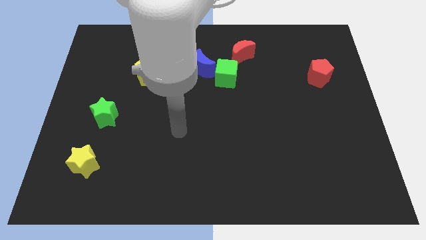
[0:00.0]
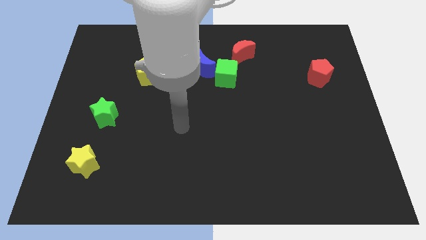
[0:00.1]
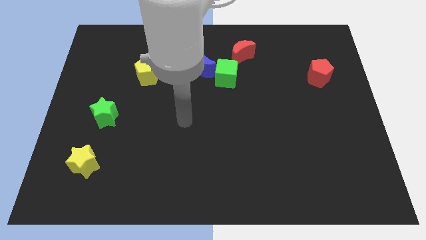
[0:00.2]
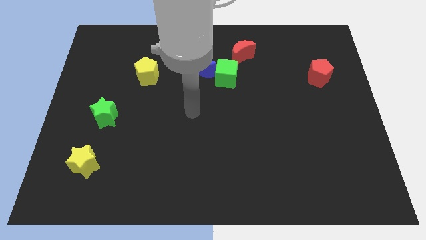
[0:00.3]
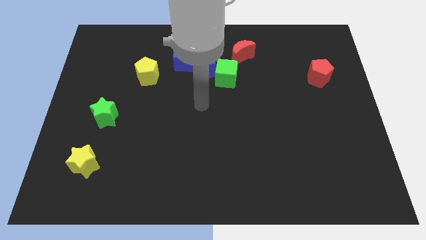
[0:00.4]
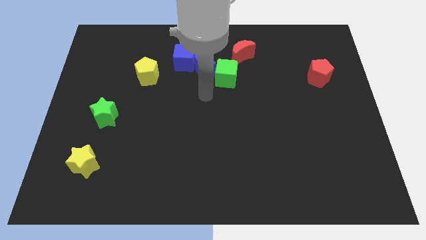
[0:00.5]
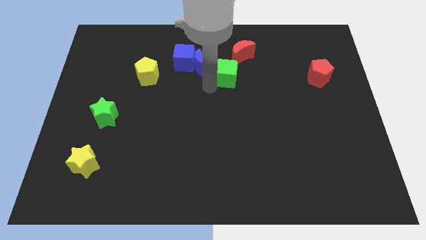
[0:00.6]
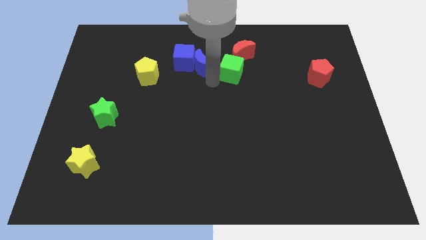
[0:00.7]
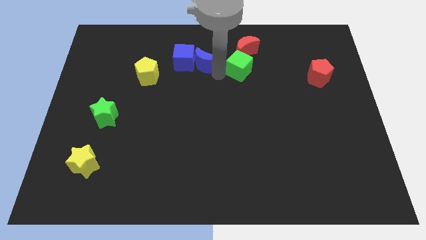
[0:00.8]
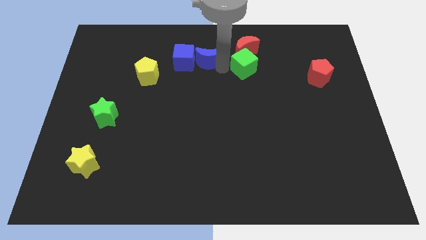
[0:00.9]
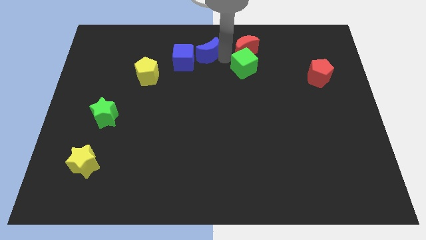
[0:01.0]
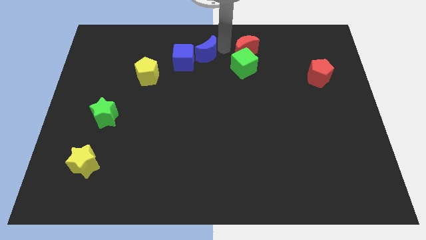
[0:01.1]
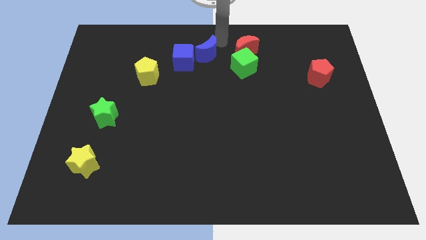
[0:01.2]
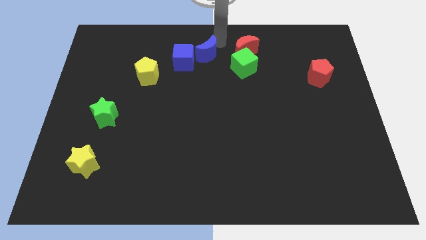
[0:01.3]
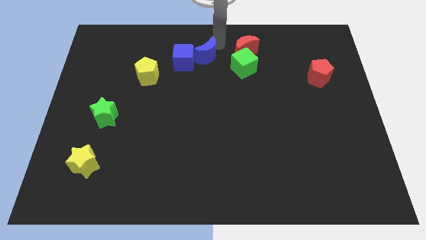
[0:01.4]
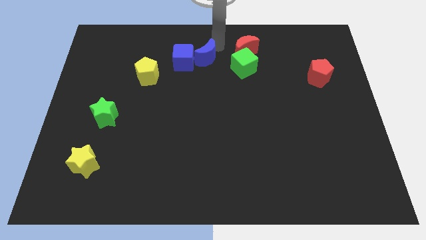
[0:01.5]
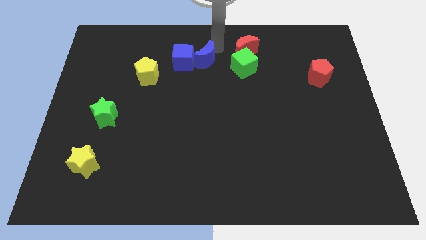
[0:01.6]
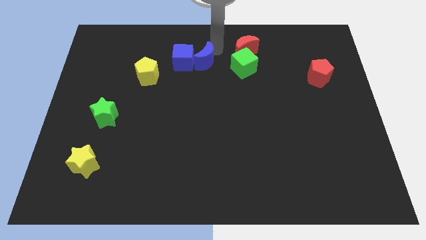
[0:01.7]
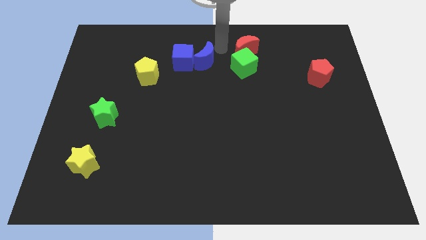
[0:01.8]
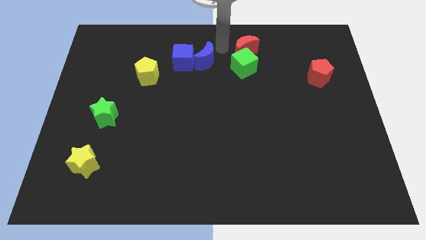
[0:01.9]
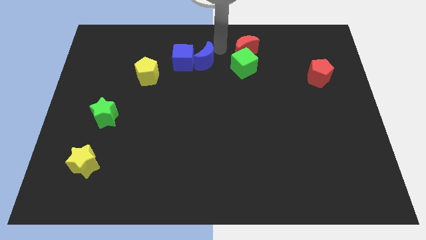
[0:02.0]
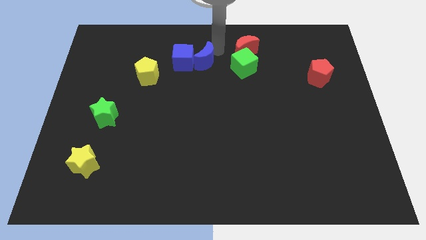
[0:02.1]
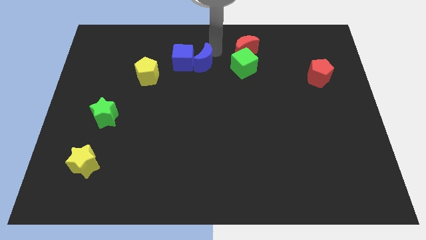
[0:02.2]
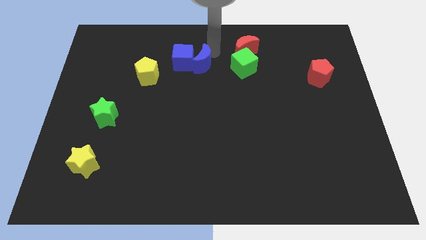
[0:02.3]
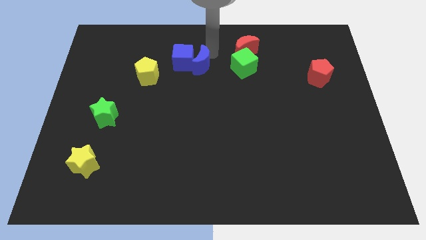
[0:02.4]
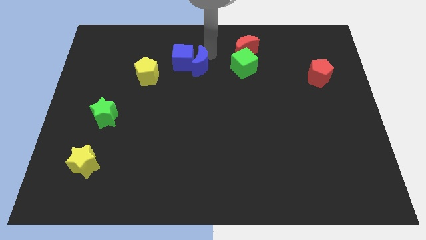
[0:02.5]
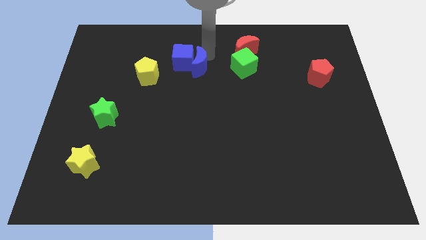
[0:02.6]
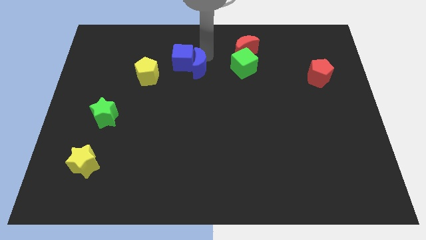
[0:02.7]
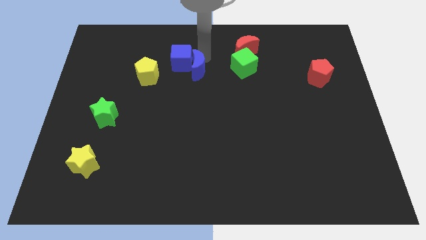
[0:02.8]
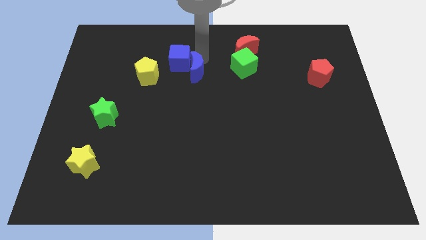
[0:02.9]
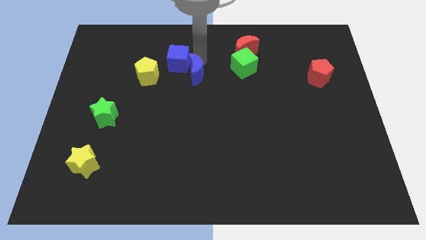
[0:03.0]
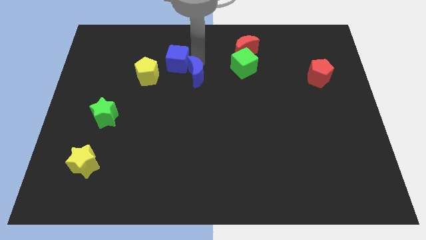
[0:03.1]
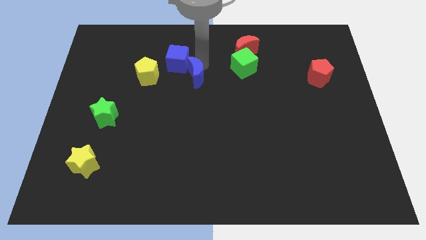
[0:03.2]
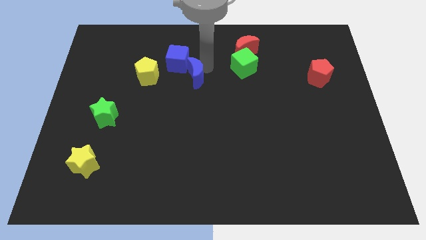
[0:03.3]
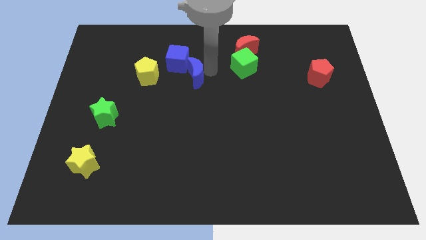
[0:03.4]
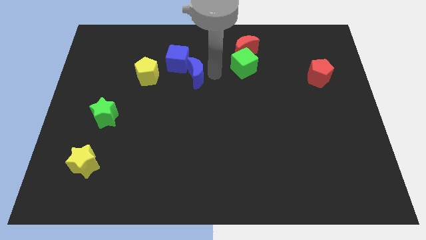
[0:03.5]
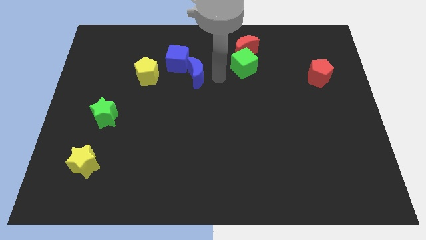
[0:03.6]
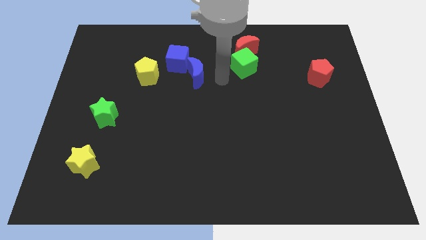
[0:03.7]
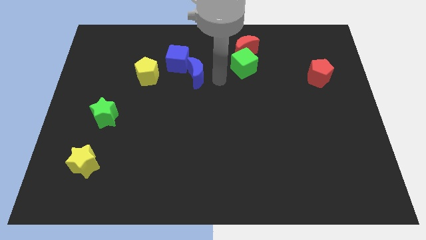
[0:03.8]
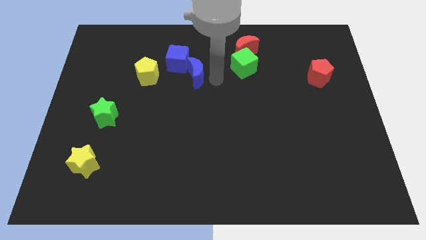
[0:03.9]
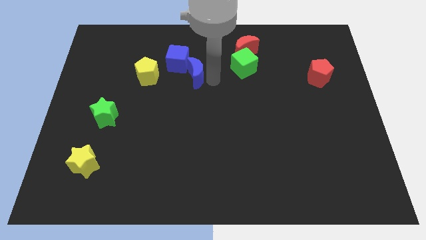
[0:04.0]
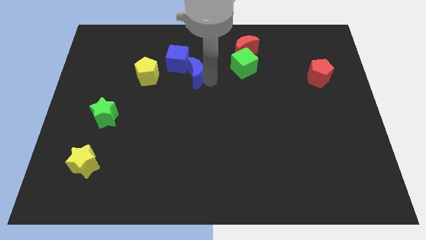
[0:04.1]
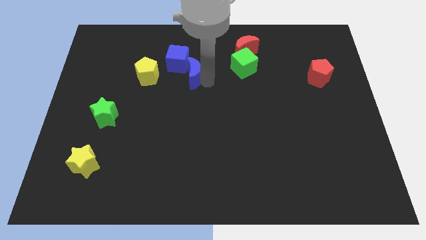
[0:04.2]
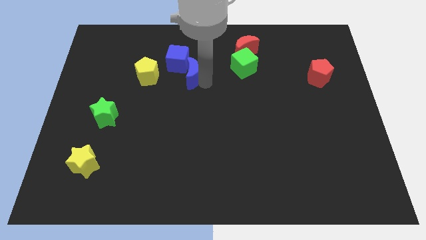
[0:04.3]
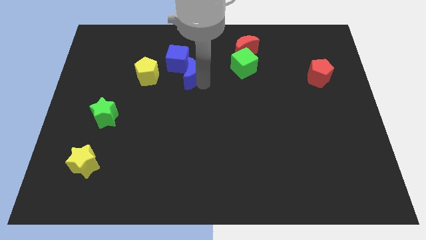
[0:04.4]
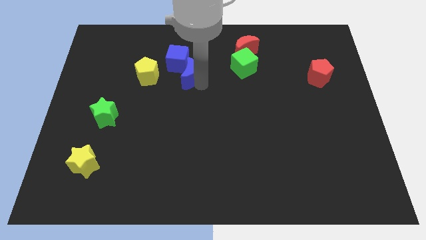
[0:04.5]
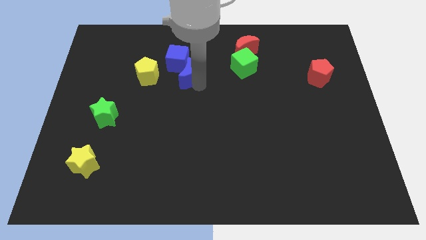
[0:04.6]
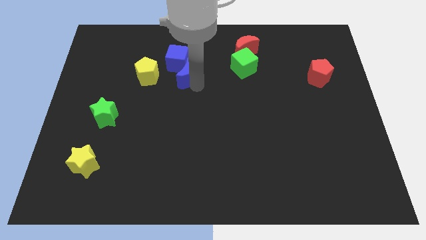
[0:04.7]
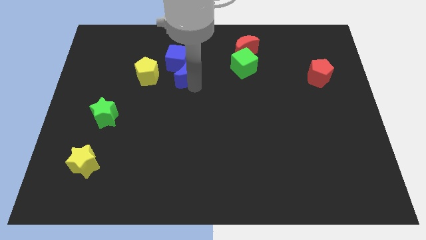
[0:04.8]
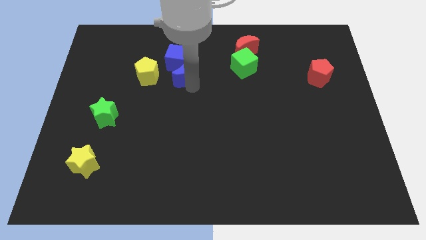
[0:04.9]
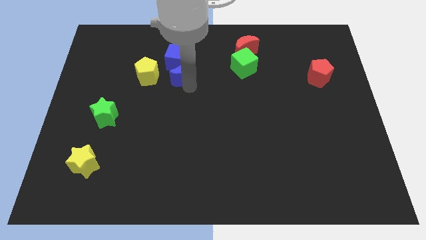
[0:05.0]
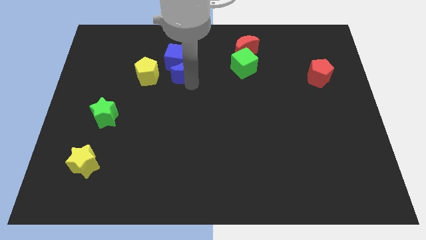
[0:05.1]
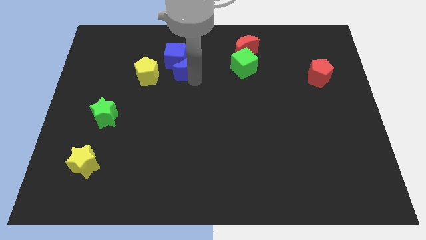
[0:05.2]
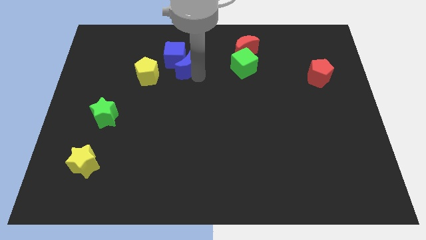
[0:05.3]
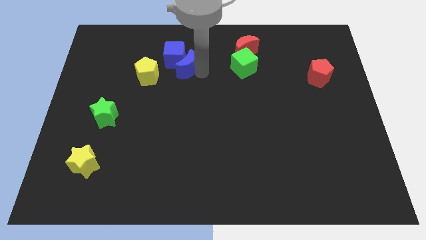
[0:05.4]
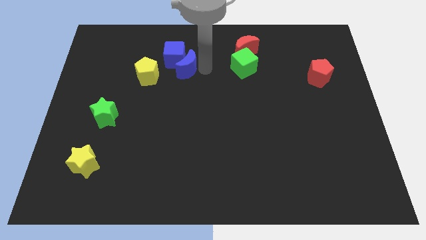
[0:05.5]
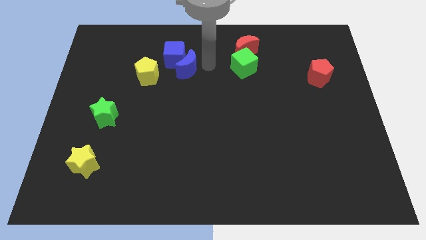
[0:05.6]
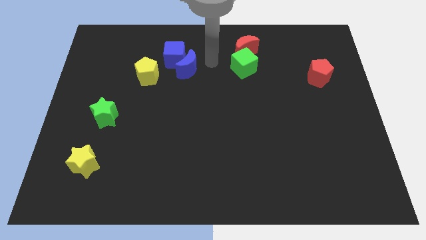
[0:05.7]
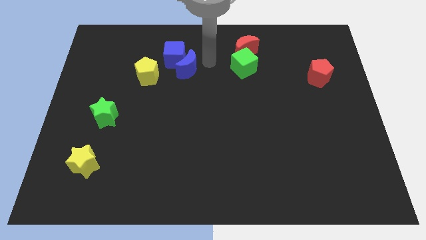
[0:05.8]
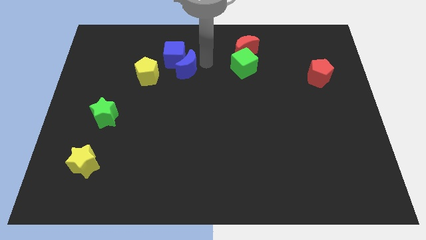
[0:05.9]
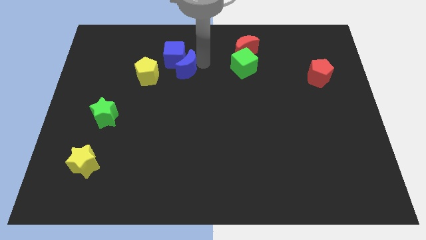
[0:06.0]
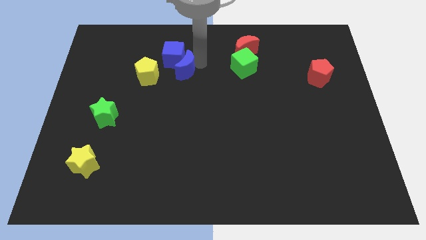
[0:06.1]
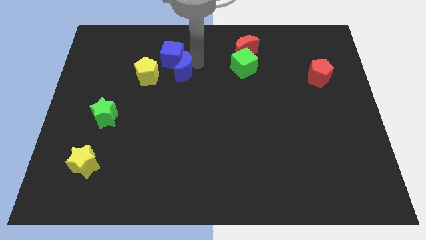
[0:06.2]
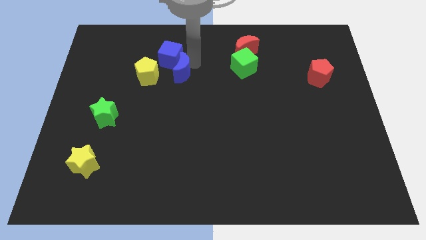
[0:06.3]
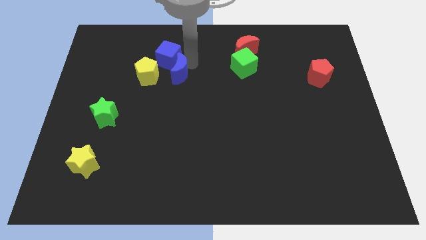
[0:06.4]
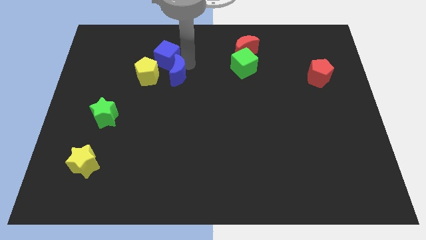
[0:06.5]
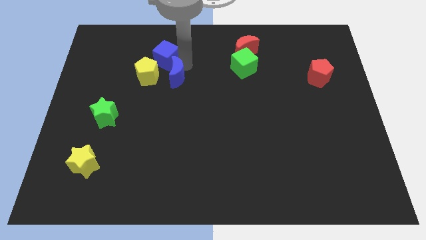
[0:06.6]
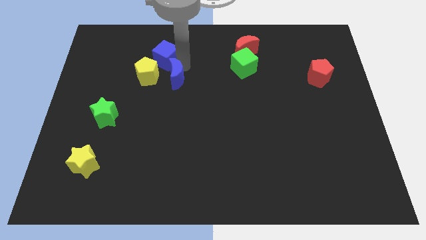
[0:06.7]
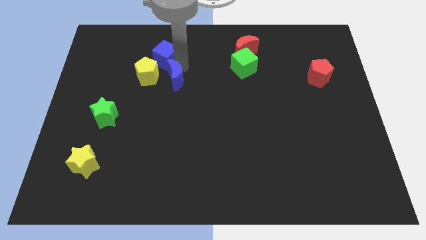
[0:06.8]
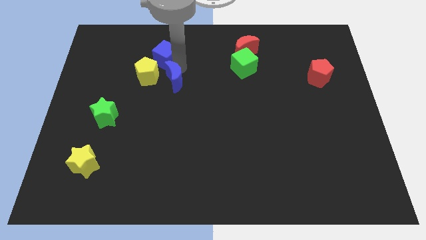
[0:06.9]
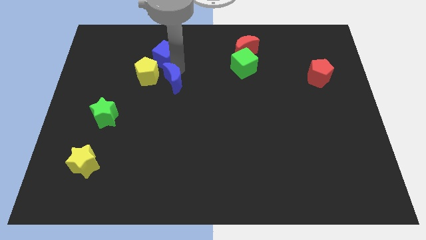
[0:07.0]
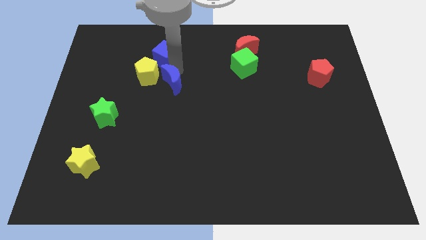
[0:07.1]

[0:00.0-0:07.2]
pull the blue moon apart from the blue cube and green cube

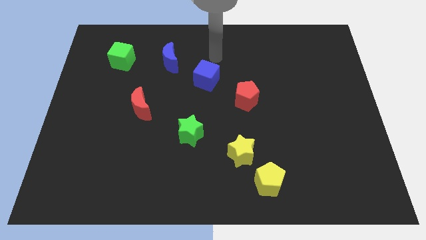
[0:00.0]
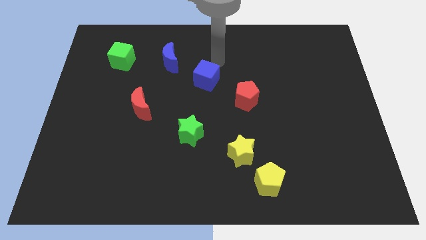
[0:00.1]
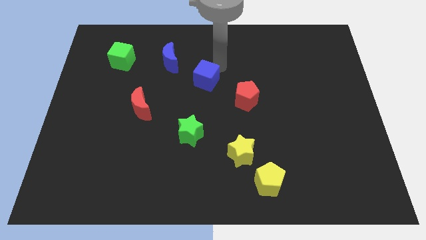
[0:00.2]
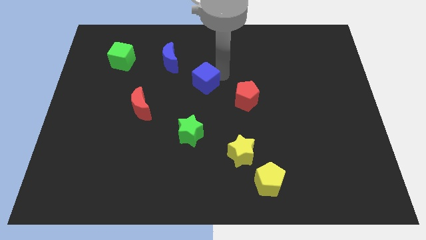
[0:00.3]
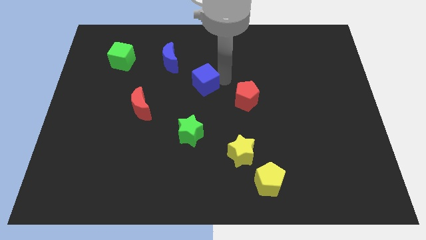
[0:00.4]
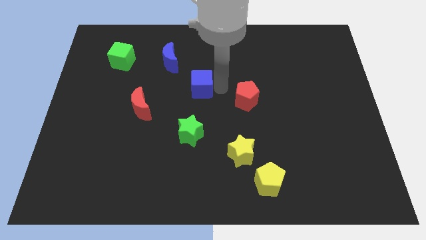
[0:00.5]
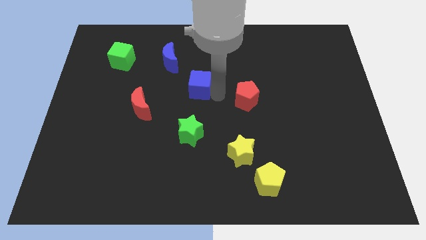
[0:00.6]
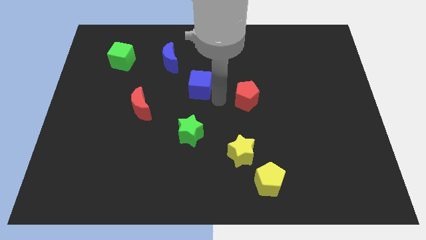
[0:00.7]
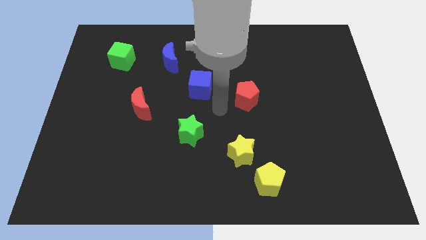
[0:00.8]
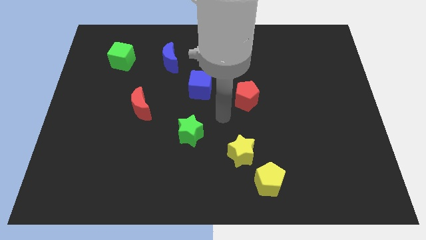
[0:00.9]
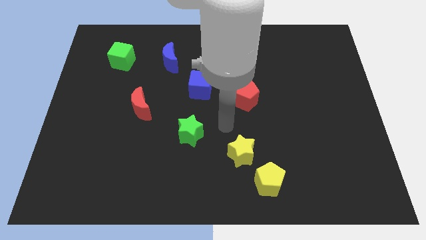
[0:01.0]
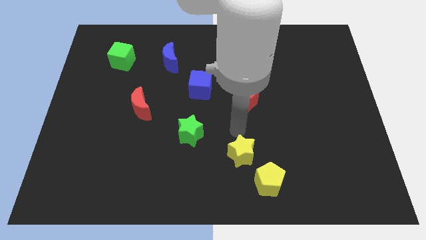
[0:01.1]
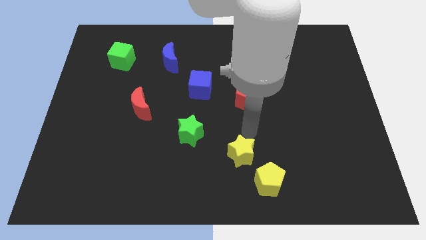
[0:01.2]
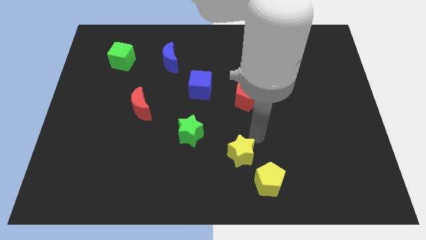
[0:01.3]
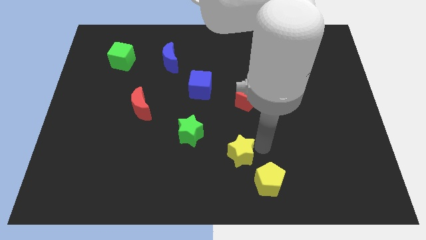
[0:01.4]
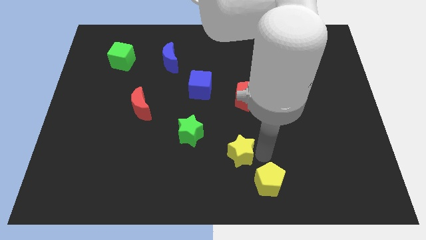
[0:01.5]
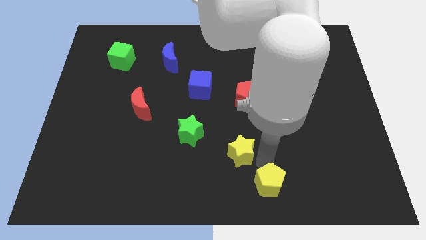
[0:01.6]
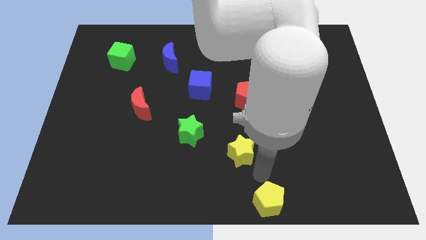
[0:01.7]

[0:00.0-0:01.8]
pull the yellow star apart from the yellow pentagon

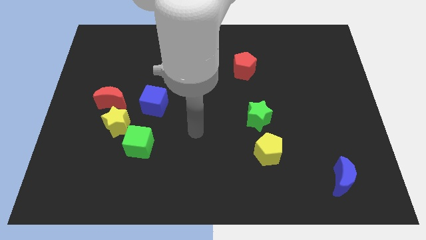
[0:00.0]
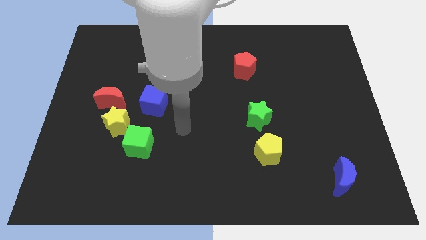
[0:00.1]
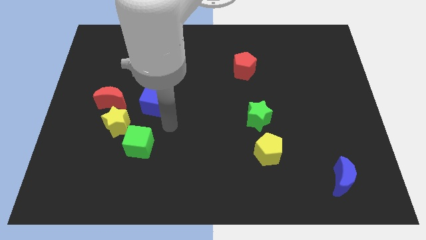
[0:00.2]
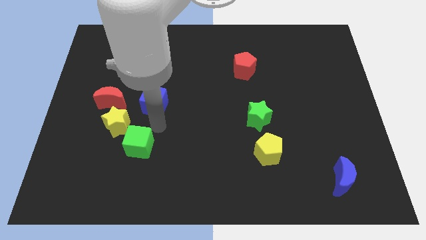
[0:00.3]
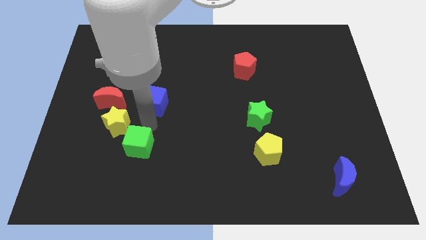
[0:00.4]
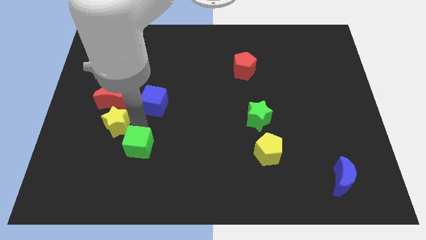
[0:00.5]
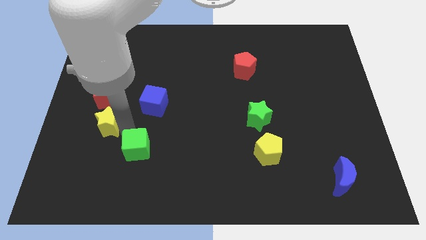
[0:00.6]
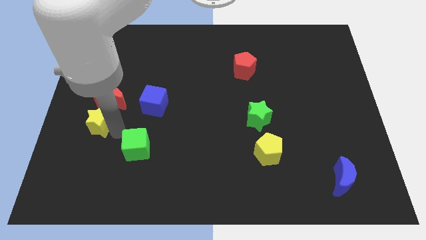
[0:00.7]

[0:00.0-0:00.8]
pull the green cube apart from the yellow star
